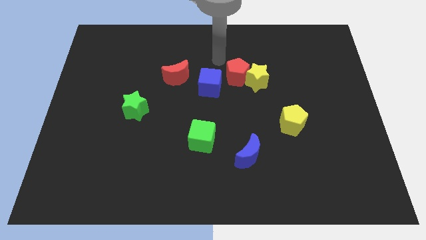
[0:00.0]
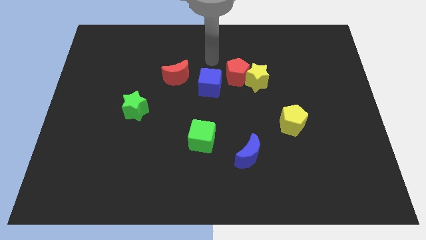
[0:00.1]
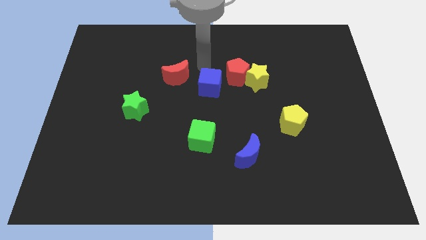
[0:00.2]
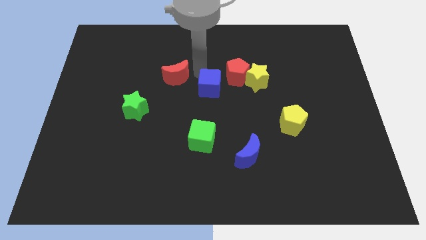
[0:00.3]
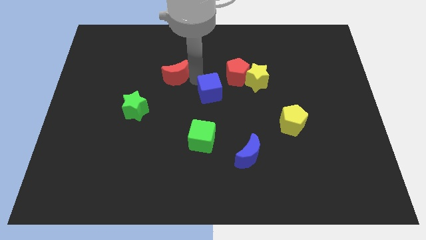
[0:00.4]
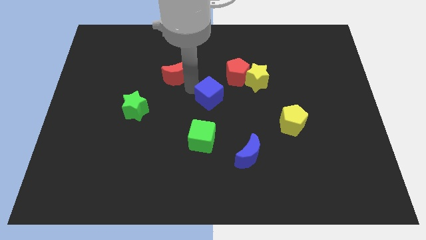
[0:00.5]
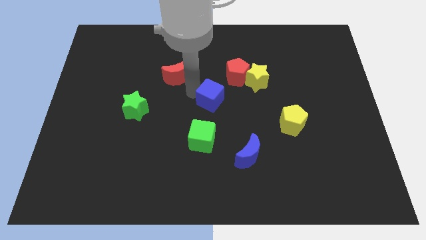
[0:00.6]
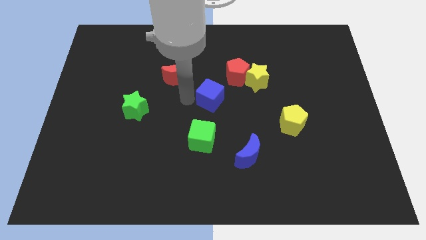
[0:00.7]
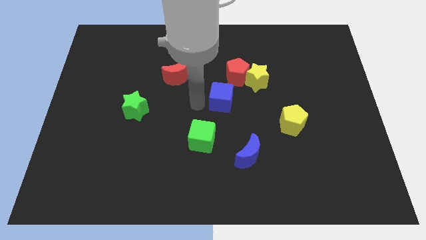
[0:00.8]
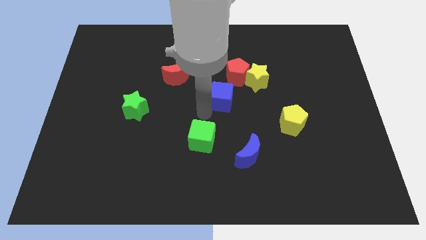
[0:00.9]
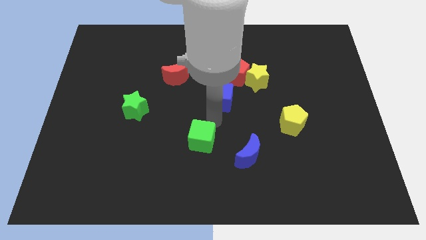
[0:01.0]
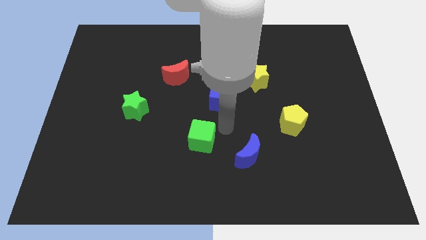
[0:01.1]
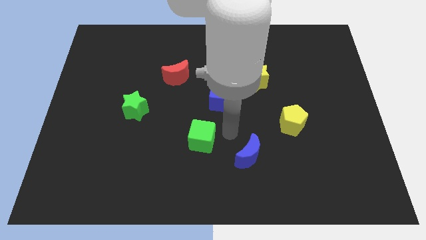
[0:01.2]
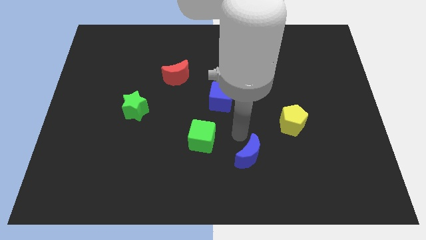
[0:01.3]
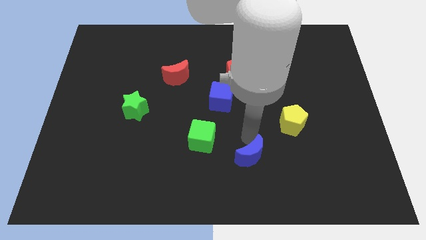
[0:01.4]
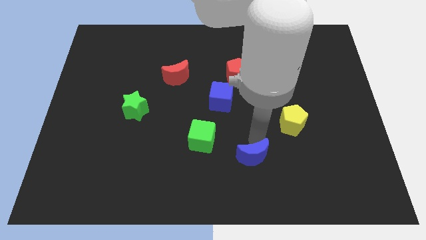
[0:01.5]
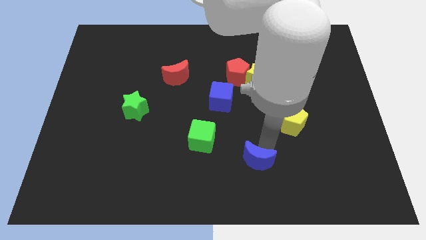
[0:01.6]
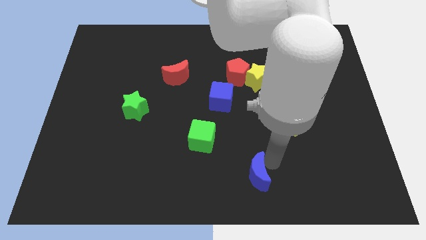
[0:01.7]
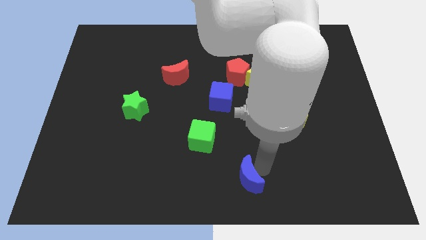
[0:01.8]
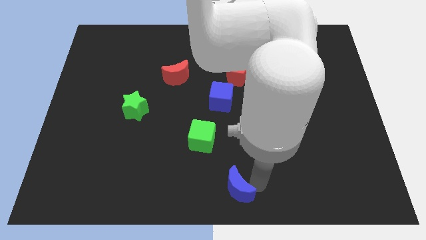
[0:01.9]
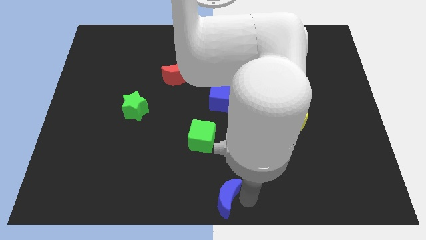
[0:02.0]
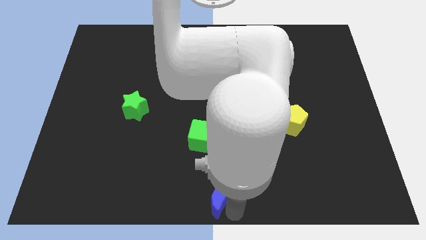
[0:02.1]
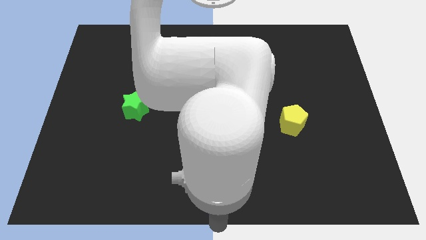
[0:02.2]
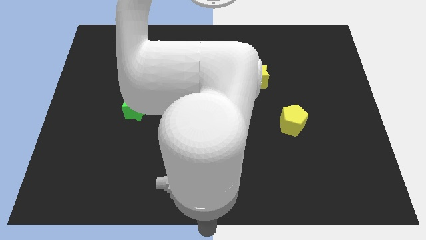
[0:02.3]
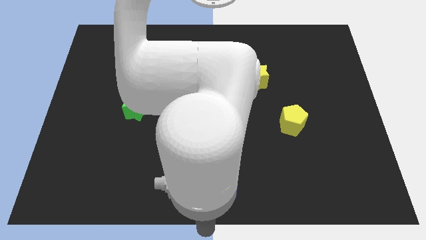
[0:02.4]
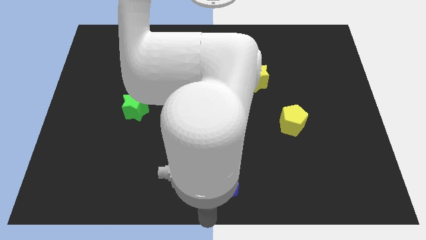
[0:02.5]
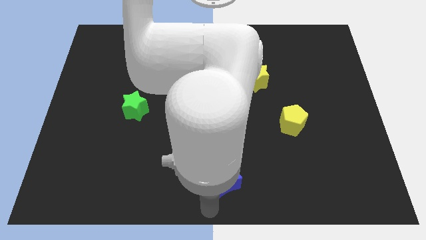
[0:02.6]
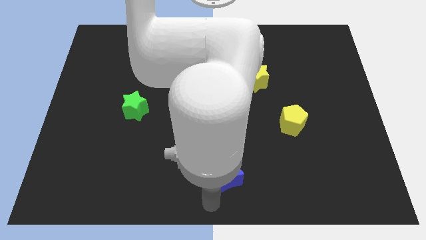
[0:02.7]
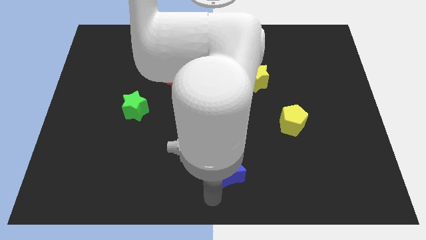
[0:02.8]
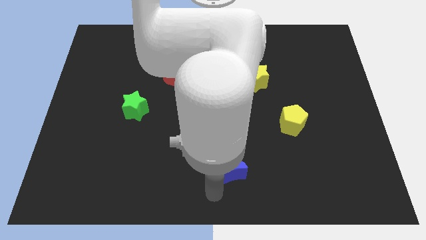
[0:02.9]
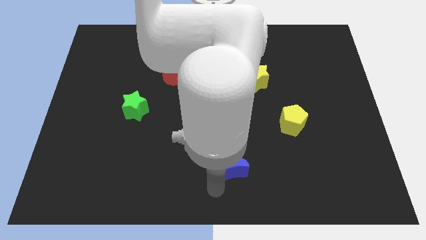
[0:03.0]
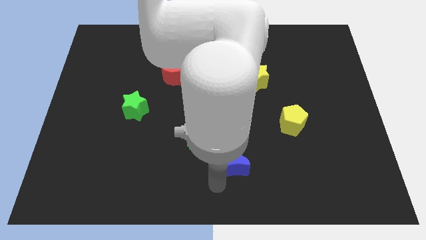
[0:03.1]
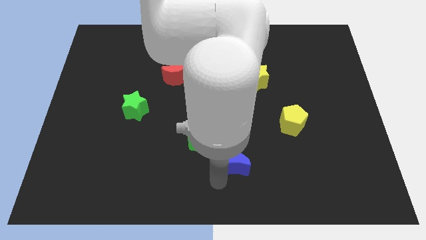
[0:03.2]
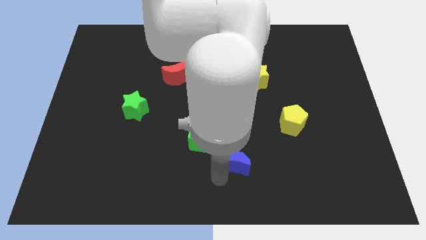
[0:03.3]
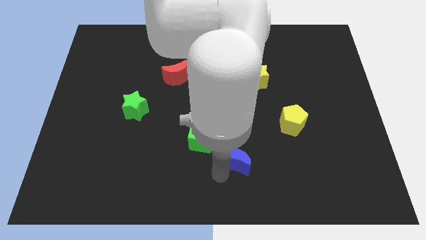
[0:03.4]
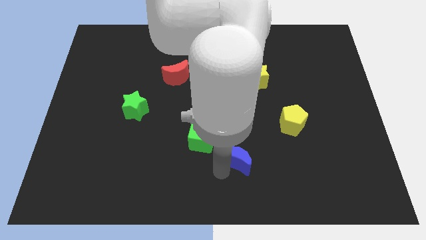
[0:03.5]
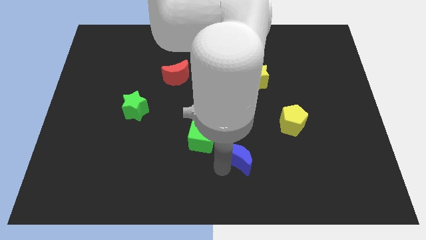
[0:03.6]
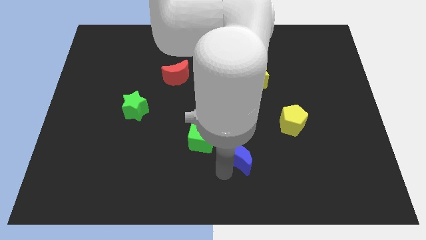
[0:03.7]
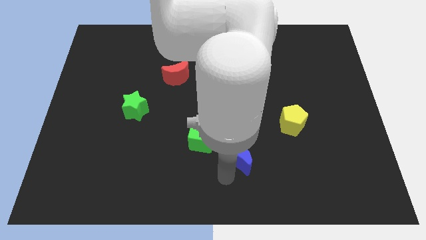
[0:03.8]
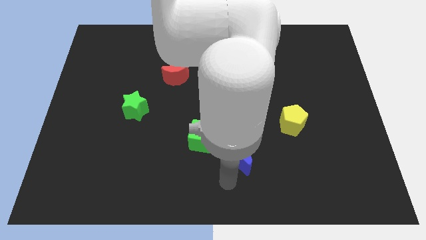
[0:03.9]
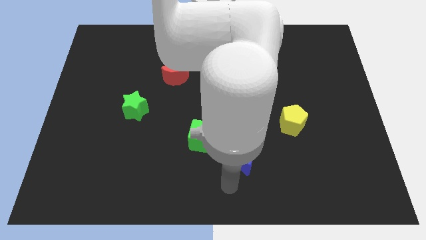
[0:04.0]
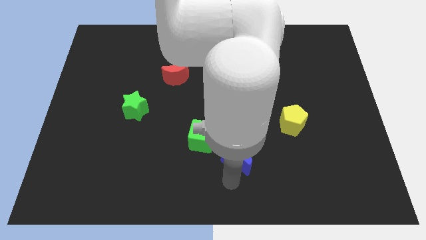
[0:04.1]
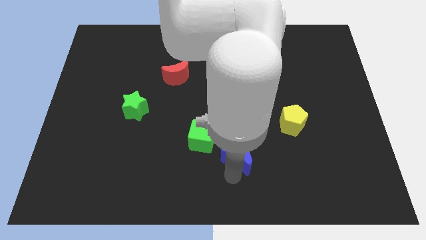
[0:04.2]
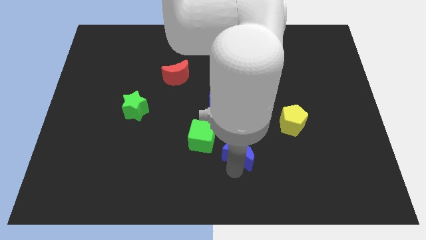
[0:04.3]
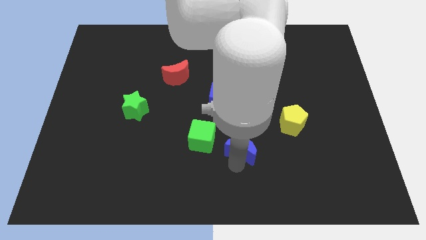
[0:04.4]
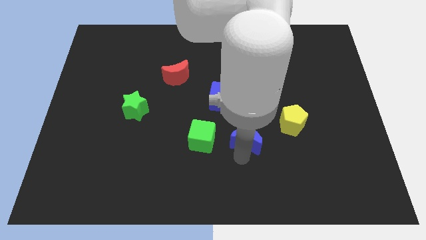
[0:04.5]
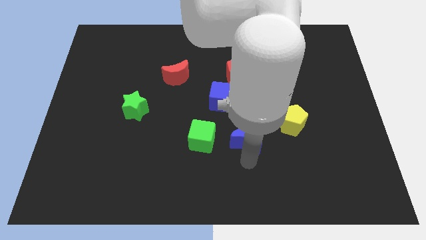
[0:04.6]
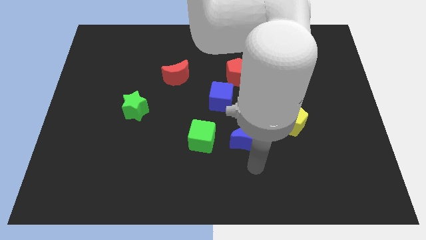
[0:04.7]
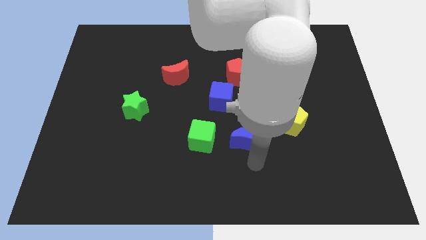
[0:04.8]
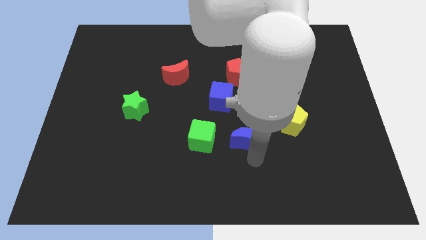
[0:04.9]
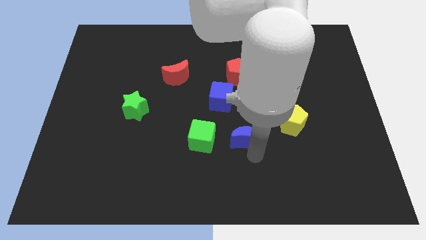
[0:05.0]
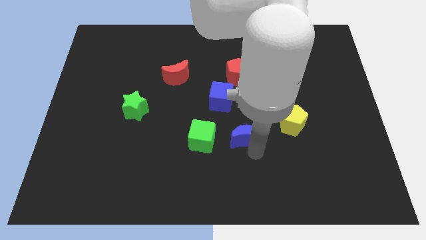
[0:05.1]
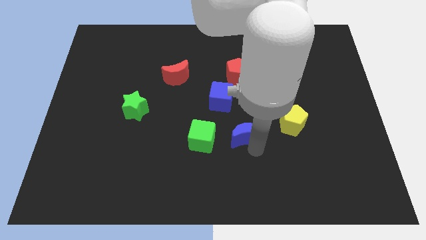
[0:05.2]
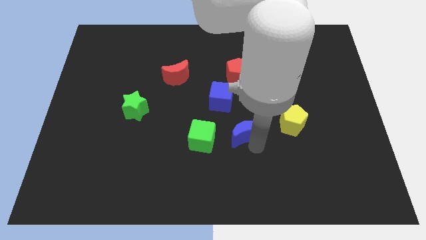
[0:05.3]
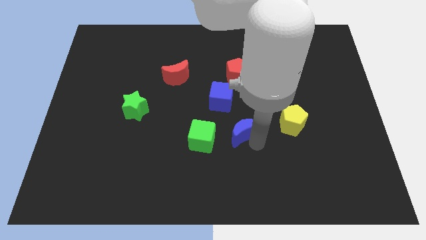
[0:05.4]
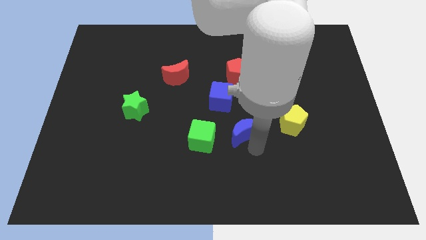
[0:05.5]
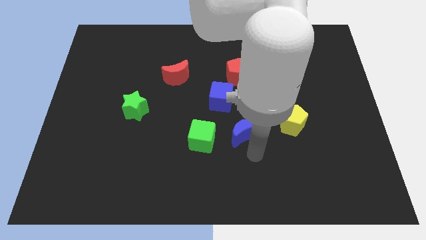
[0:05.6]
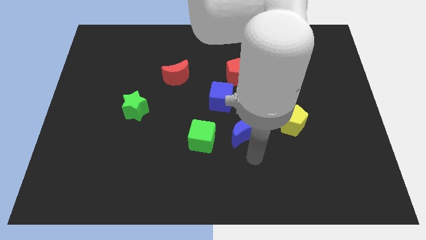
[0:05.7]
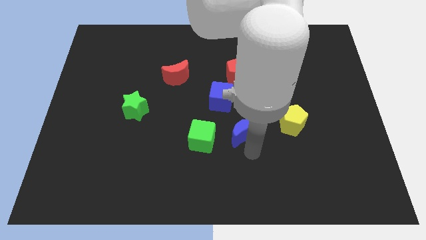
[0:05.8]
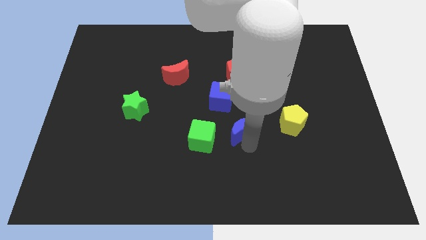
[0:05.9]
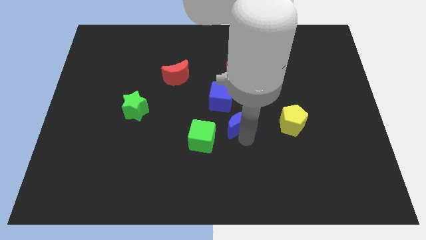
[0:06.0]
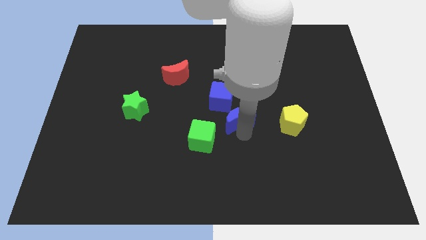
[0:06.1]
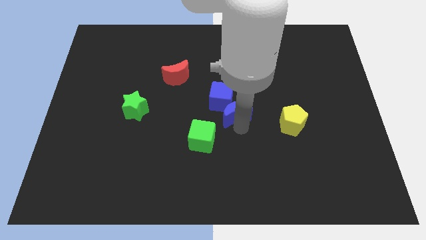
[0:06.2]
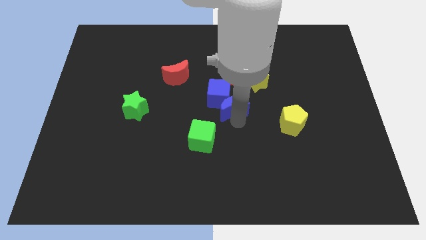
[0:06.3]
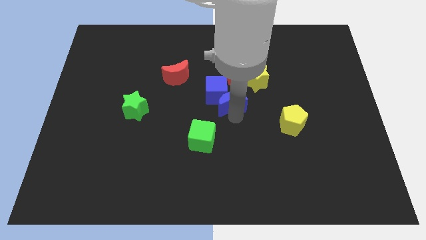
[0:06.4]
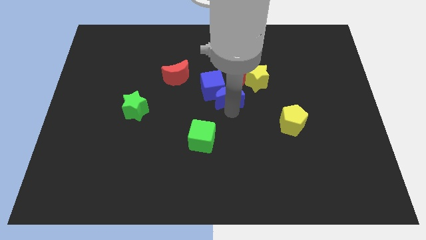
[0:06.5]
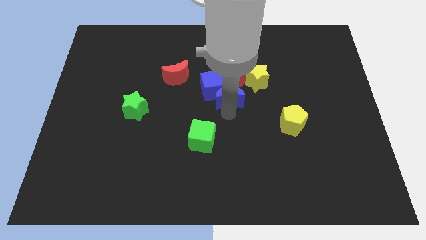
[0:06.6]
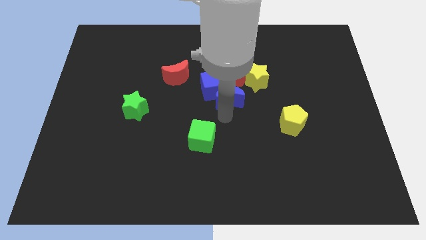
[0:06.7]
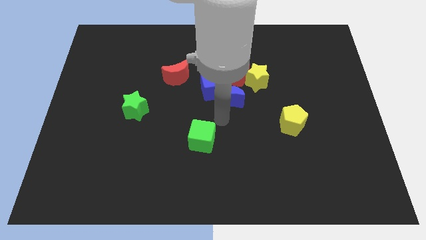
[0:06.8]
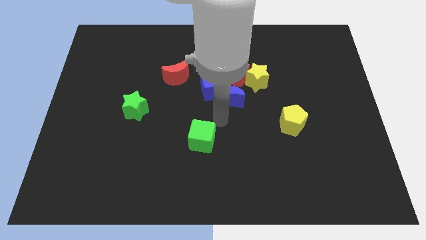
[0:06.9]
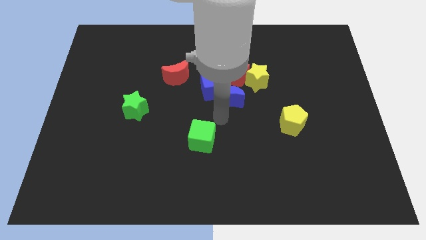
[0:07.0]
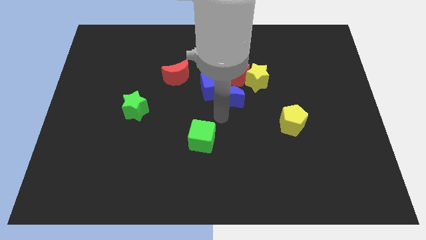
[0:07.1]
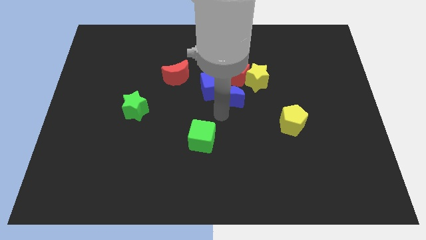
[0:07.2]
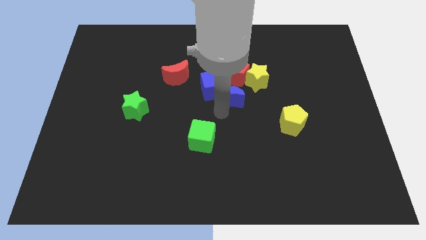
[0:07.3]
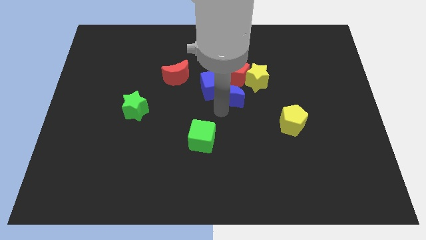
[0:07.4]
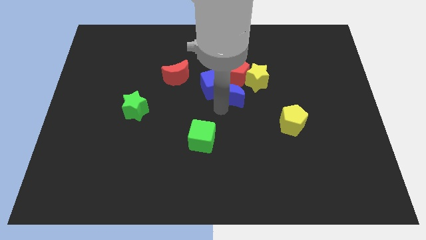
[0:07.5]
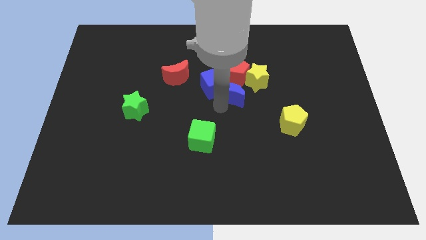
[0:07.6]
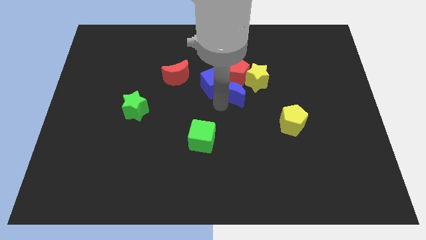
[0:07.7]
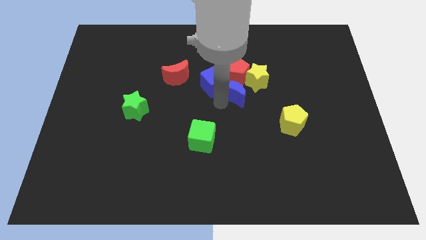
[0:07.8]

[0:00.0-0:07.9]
push the blue moon towards the red pentagon
